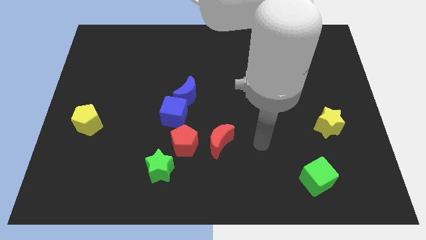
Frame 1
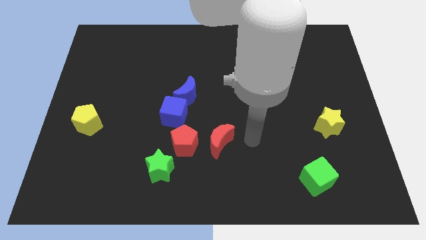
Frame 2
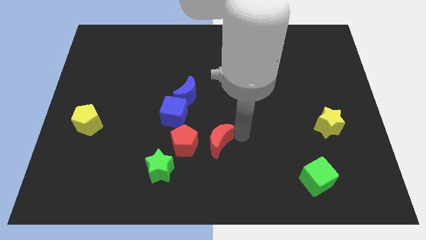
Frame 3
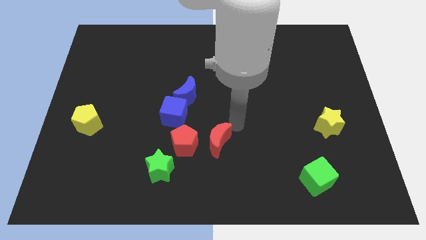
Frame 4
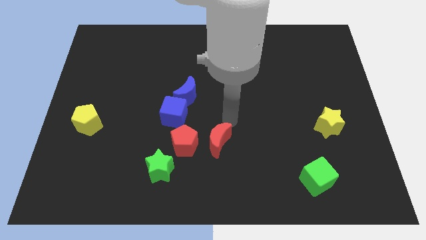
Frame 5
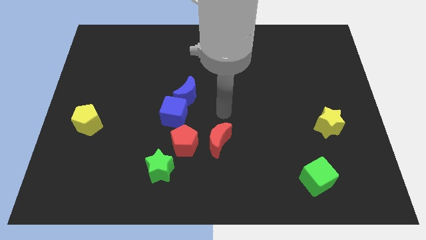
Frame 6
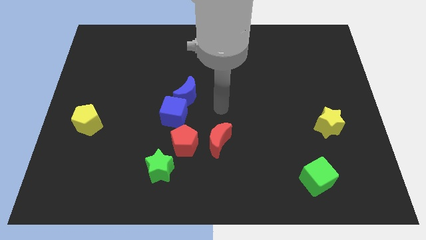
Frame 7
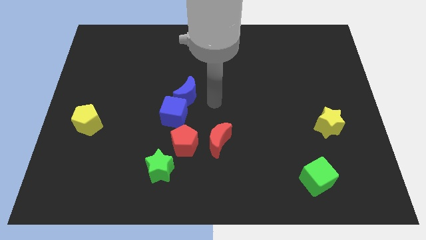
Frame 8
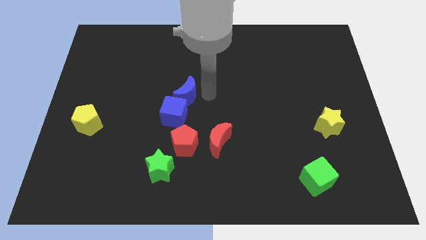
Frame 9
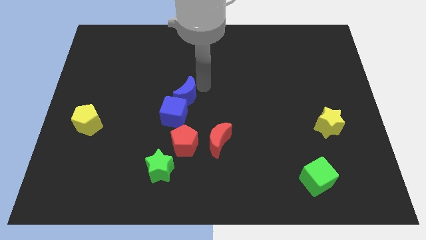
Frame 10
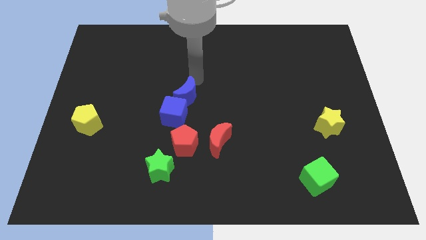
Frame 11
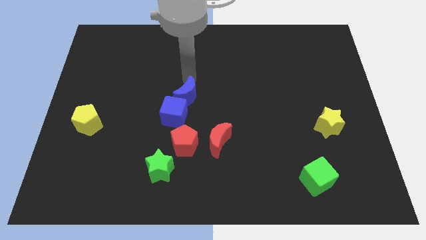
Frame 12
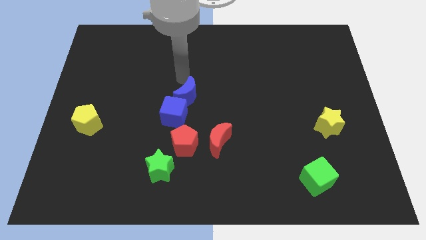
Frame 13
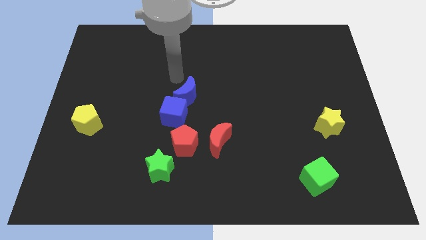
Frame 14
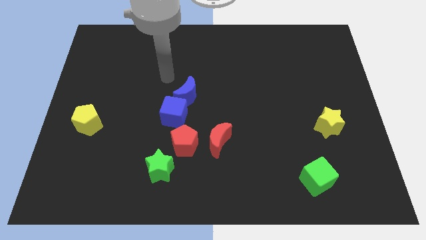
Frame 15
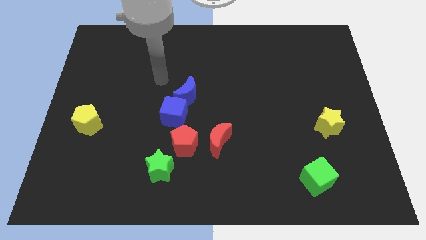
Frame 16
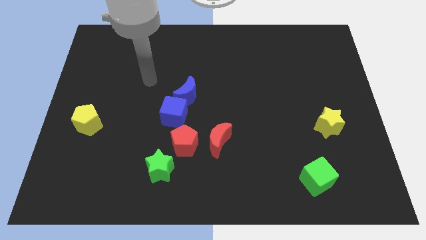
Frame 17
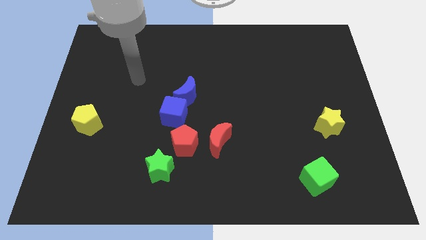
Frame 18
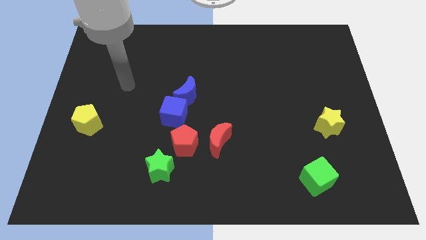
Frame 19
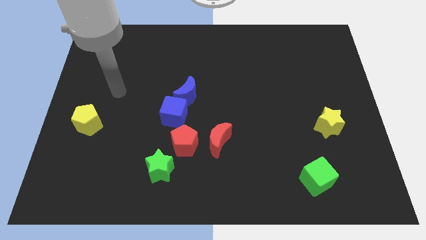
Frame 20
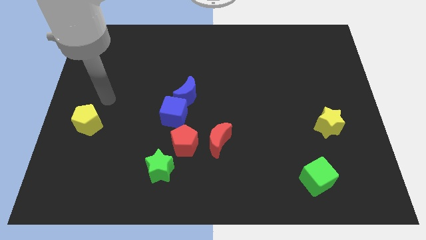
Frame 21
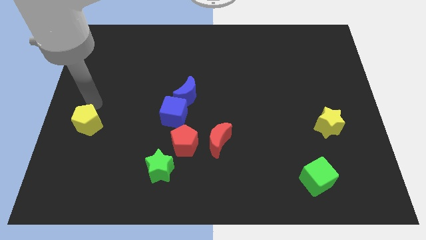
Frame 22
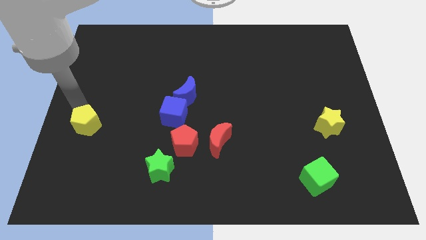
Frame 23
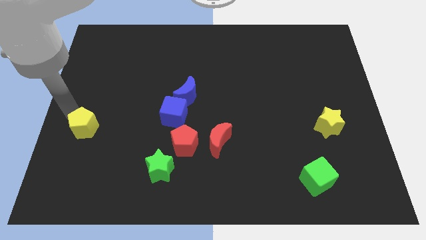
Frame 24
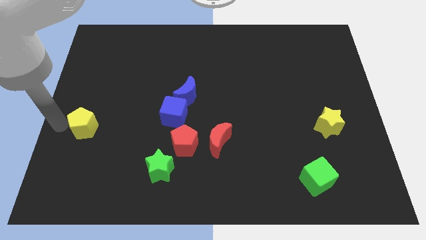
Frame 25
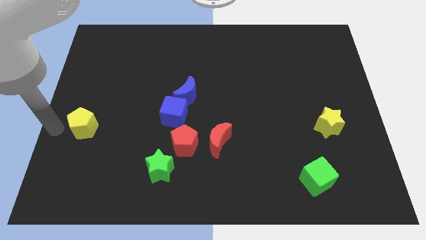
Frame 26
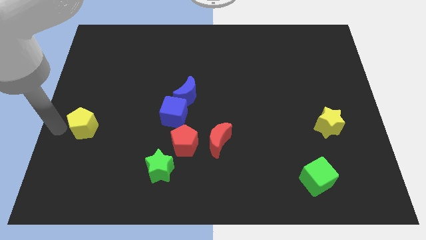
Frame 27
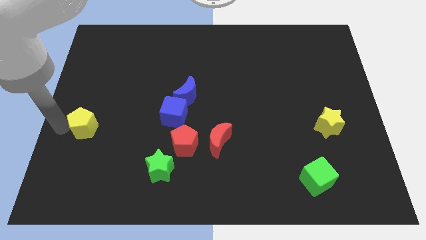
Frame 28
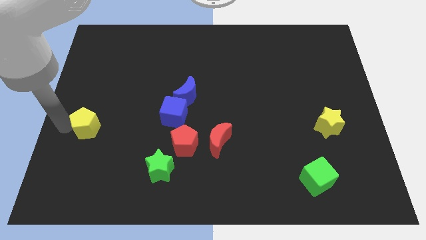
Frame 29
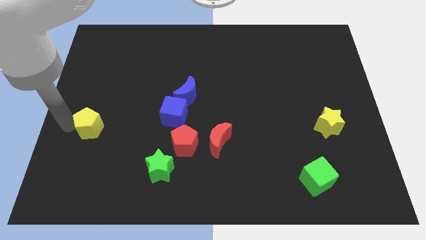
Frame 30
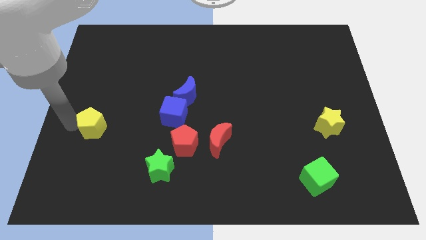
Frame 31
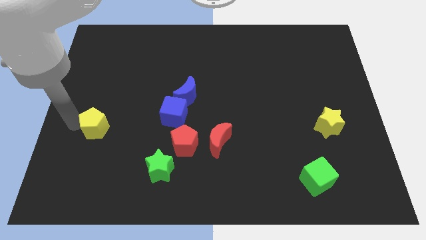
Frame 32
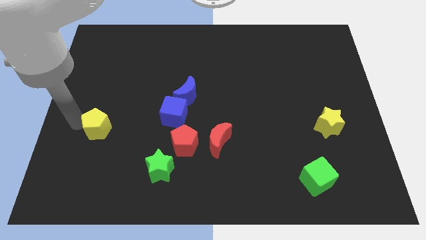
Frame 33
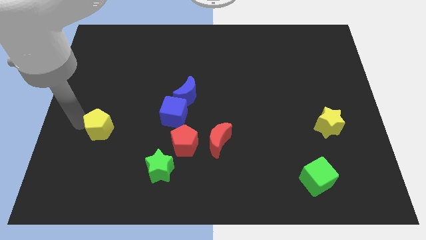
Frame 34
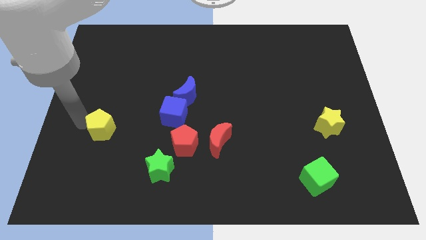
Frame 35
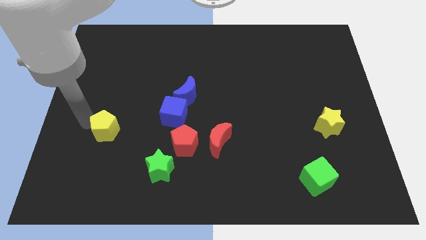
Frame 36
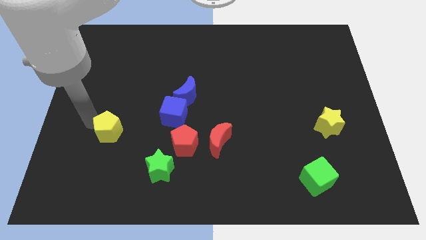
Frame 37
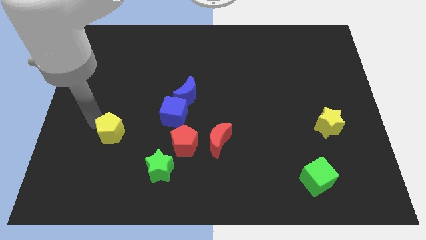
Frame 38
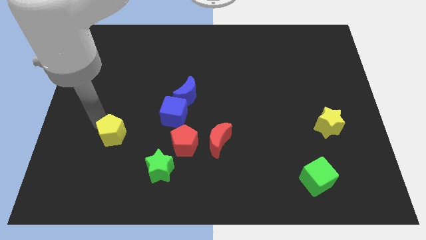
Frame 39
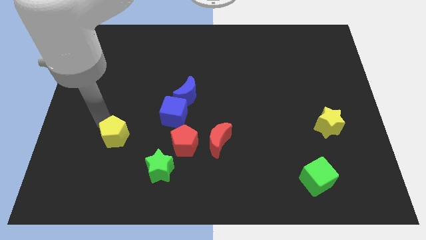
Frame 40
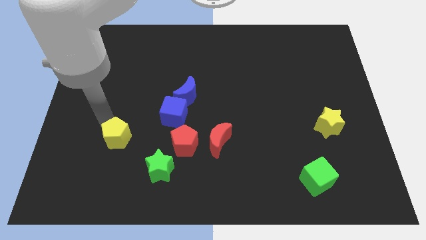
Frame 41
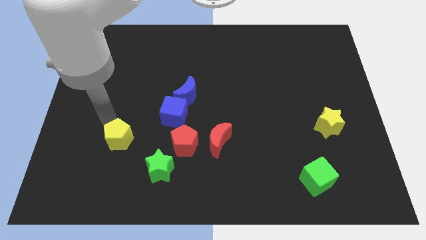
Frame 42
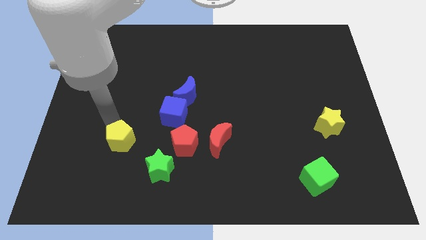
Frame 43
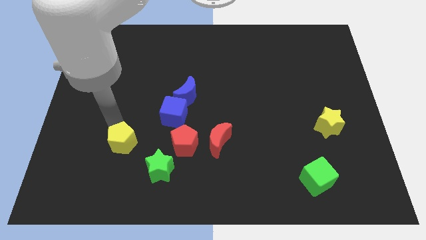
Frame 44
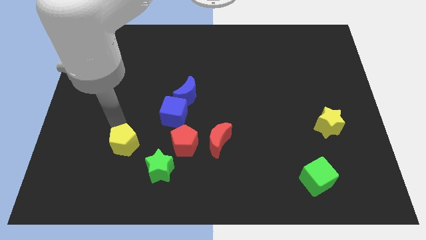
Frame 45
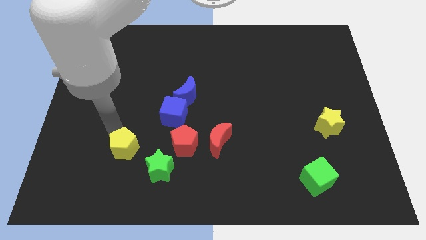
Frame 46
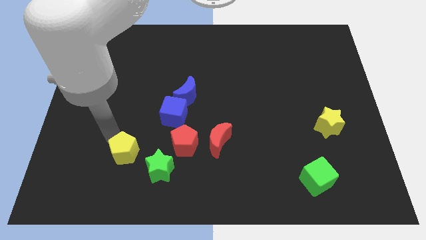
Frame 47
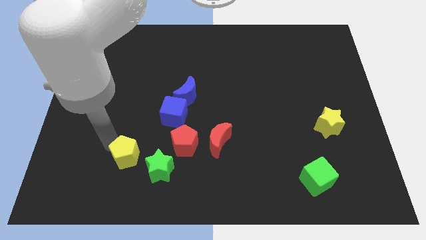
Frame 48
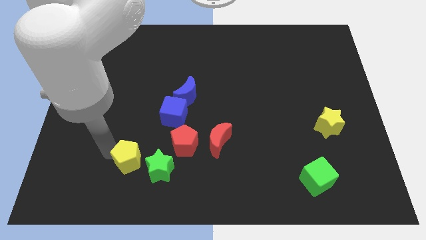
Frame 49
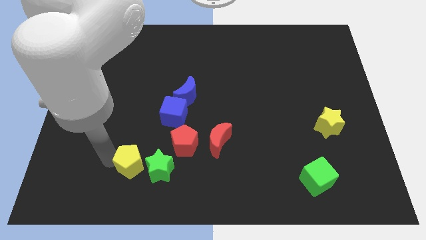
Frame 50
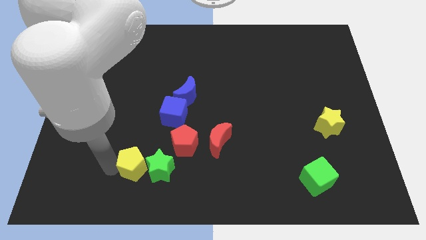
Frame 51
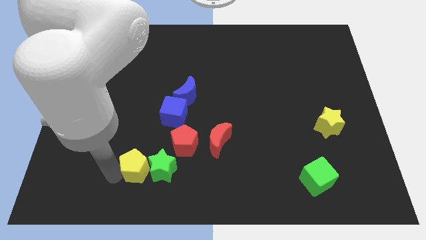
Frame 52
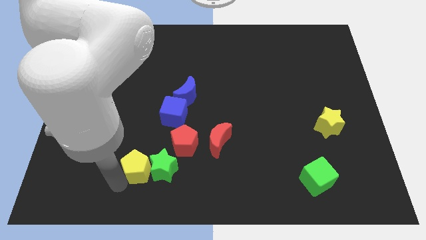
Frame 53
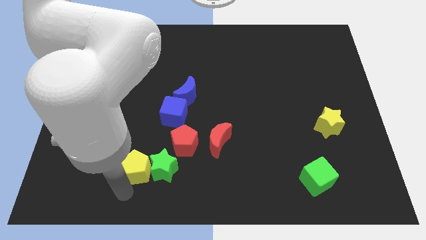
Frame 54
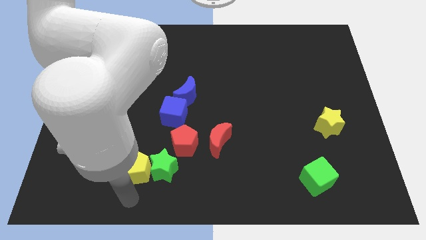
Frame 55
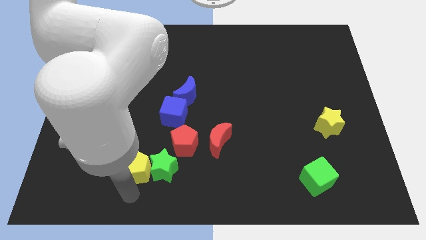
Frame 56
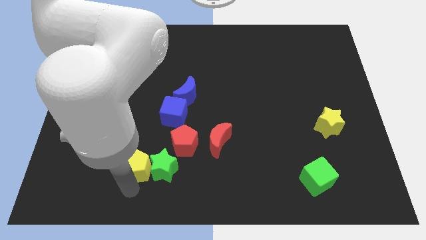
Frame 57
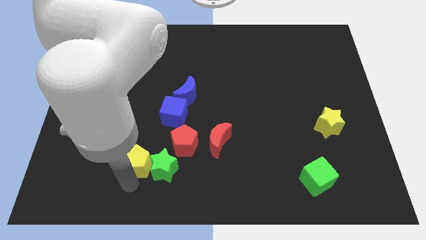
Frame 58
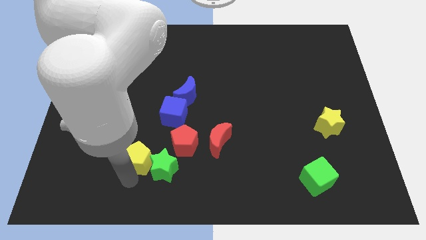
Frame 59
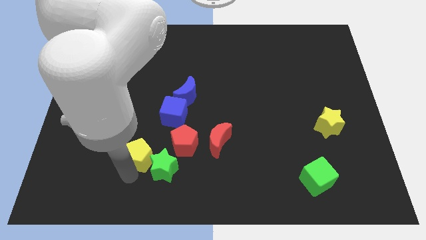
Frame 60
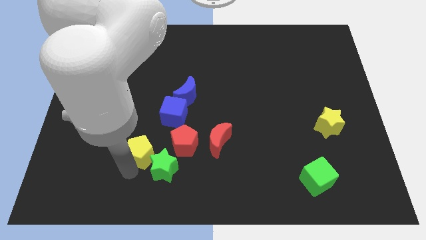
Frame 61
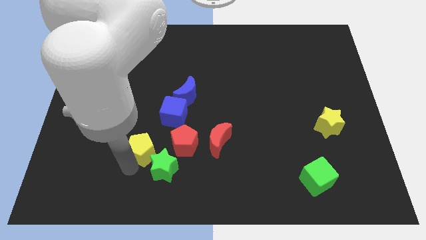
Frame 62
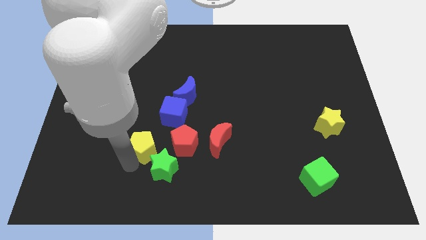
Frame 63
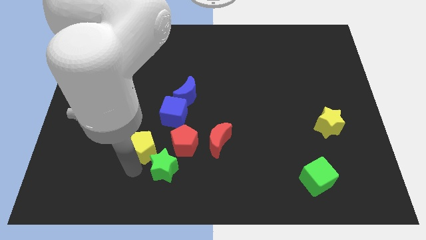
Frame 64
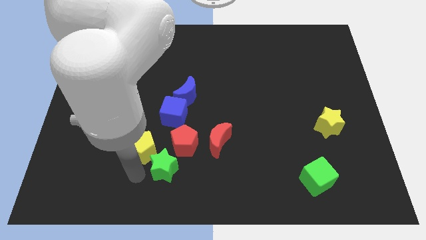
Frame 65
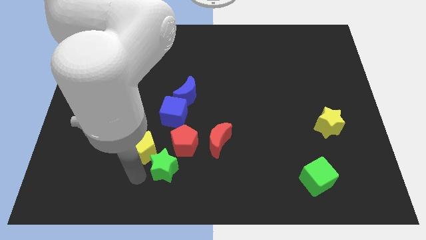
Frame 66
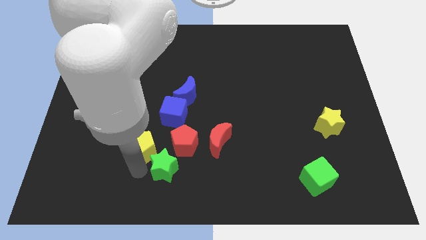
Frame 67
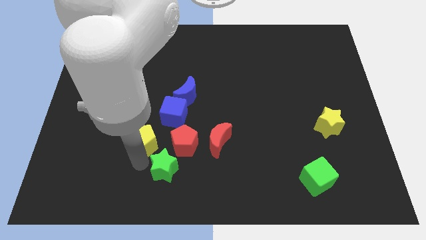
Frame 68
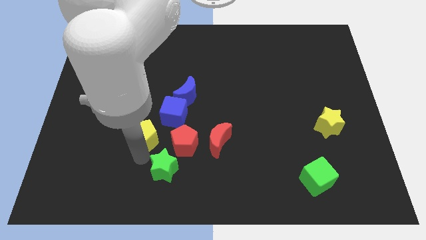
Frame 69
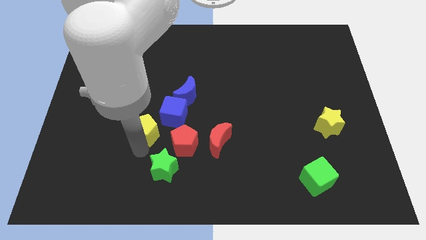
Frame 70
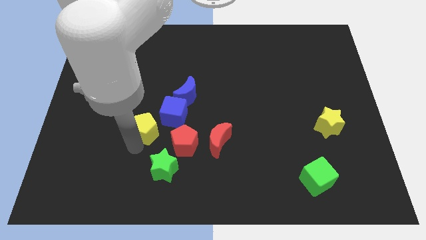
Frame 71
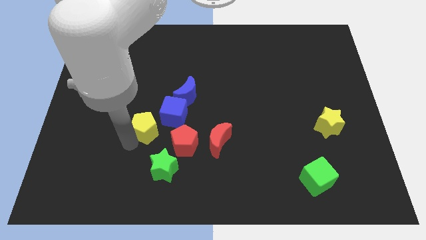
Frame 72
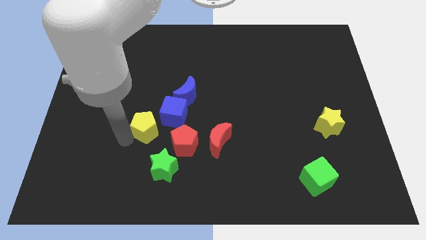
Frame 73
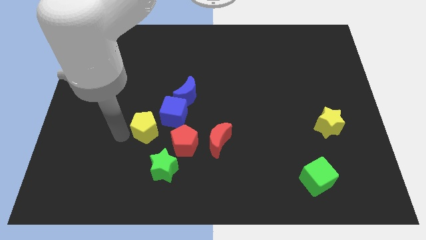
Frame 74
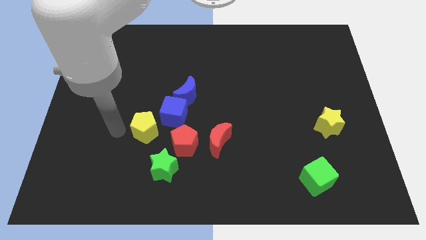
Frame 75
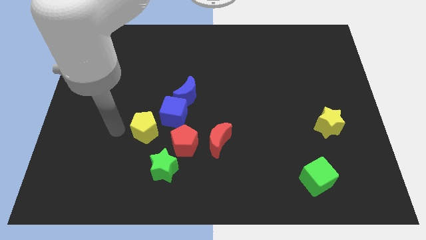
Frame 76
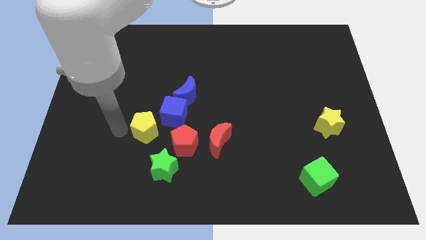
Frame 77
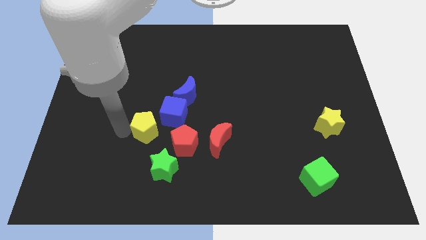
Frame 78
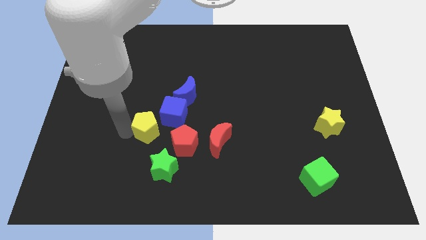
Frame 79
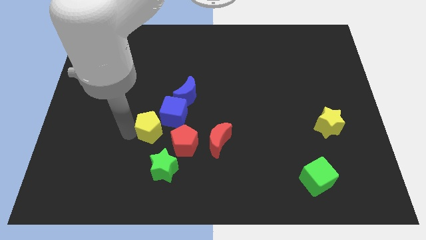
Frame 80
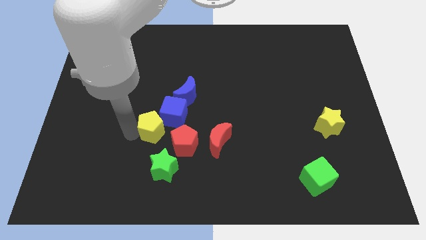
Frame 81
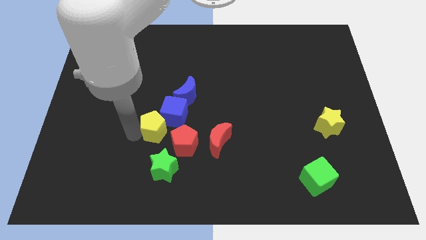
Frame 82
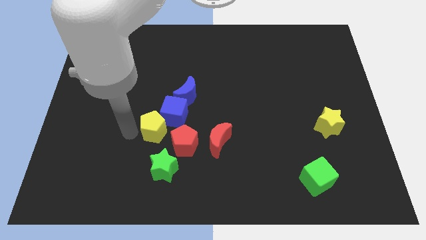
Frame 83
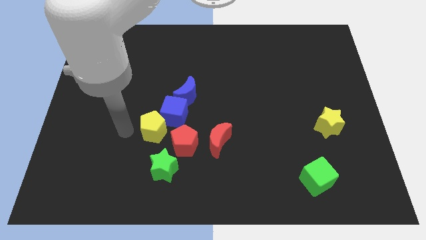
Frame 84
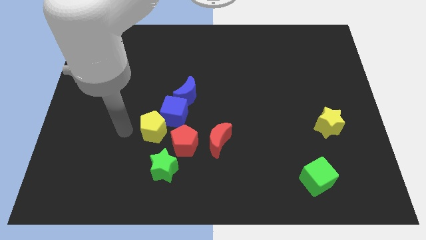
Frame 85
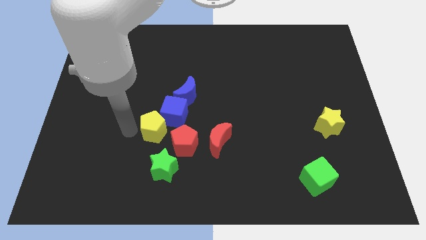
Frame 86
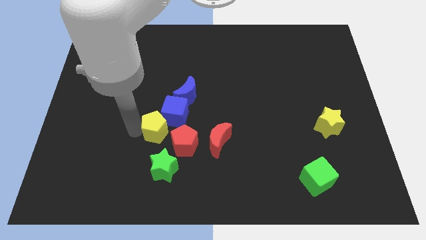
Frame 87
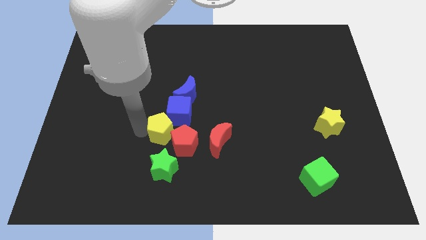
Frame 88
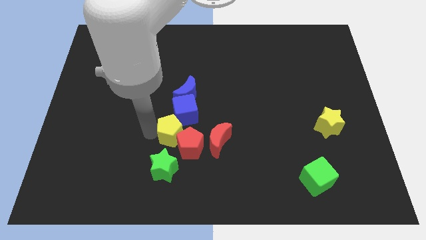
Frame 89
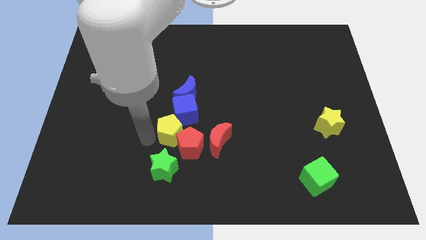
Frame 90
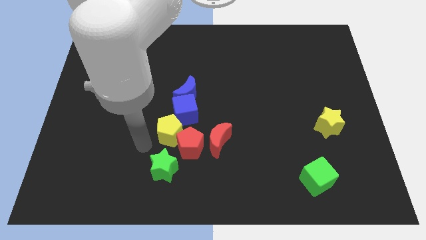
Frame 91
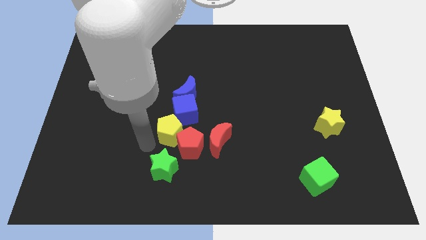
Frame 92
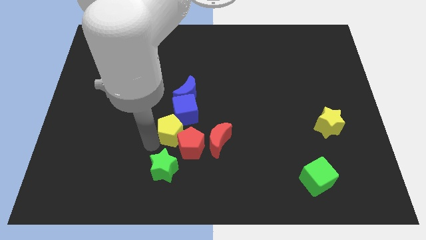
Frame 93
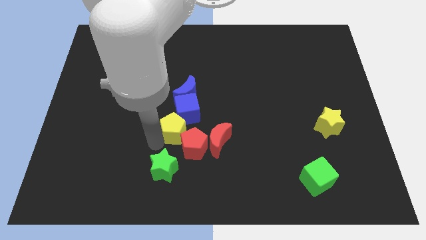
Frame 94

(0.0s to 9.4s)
put the yellow pentagon to the middle
